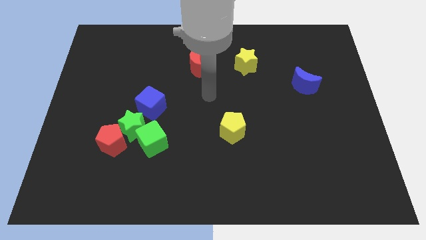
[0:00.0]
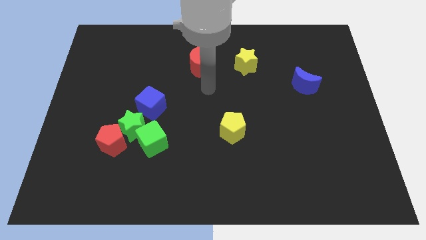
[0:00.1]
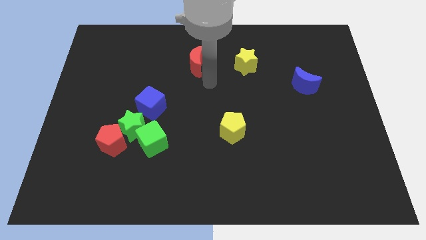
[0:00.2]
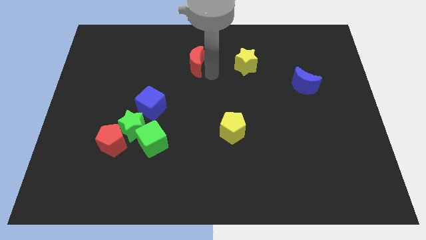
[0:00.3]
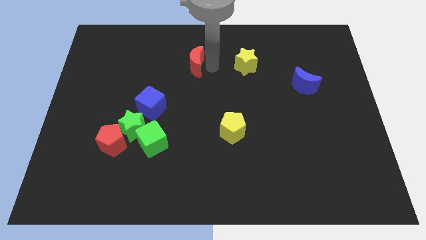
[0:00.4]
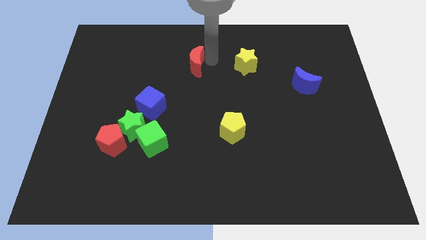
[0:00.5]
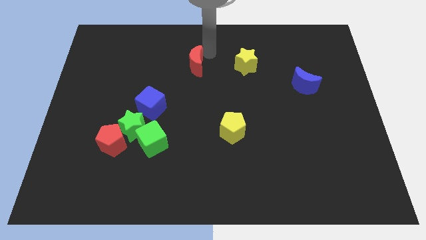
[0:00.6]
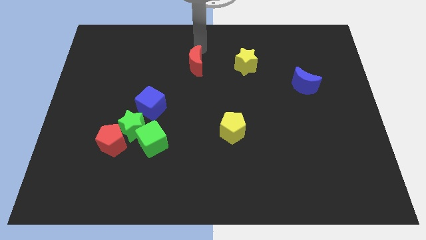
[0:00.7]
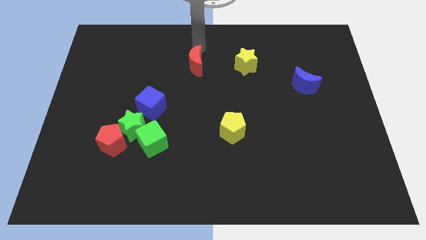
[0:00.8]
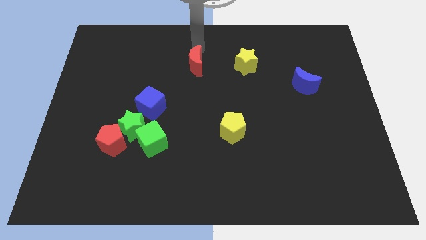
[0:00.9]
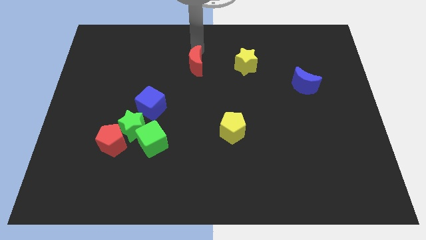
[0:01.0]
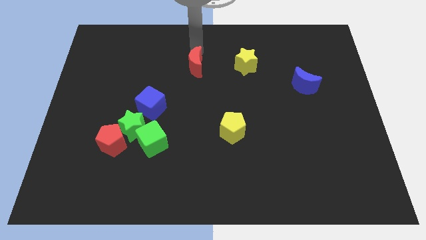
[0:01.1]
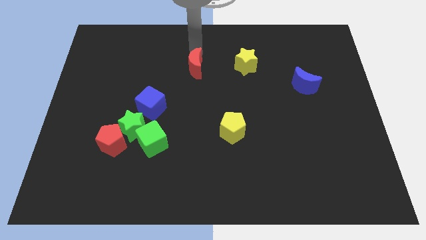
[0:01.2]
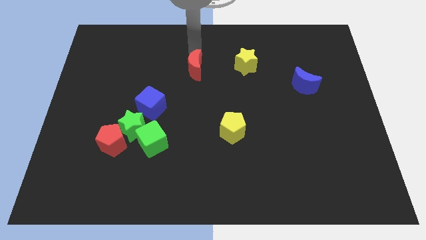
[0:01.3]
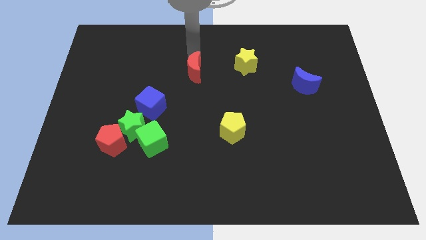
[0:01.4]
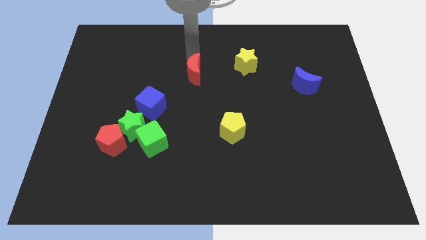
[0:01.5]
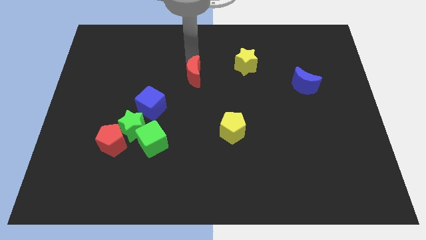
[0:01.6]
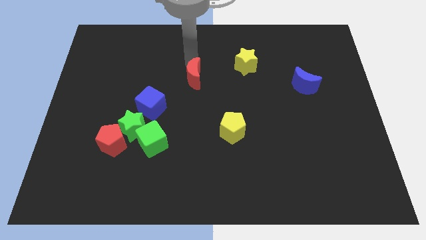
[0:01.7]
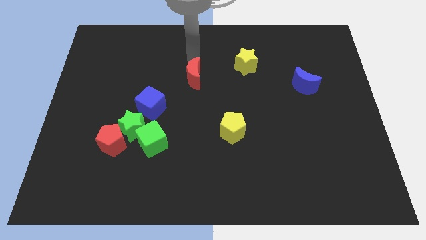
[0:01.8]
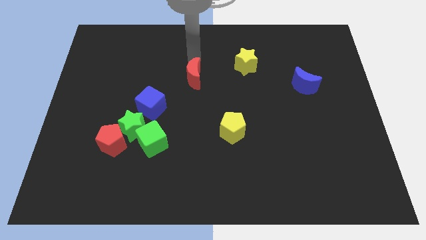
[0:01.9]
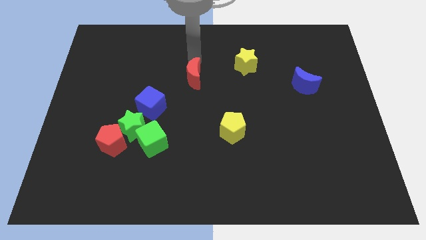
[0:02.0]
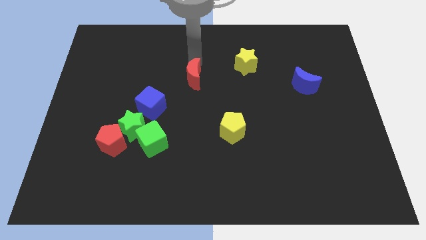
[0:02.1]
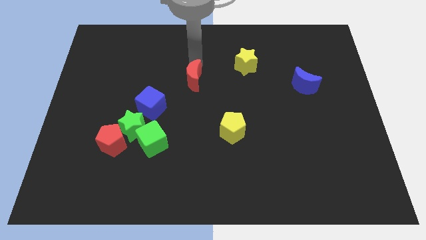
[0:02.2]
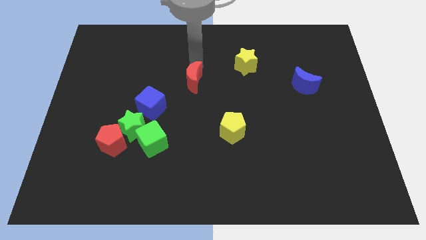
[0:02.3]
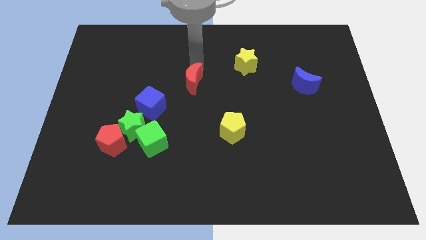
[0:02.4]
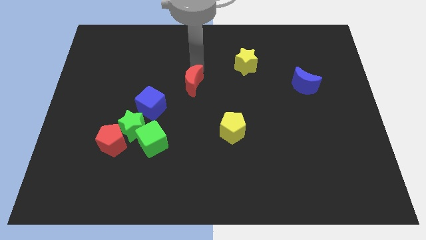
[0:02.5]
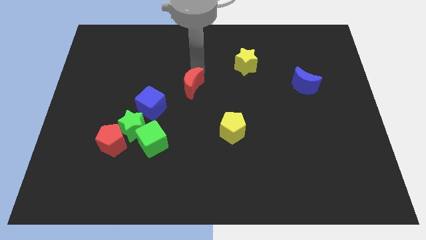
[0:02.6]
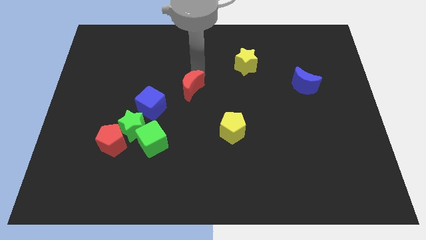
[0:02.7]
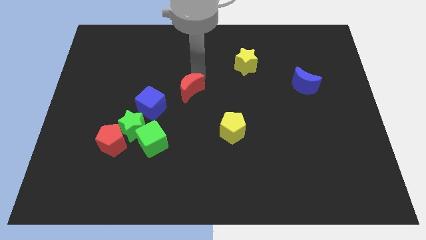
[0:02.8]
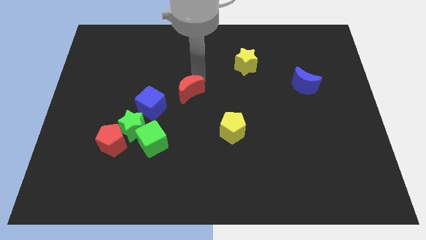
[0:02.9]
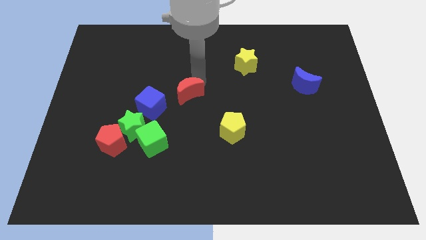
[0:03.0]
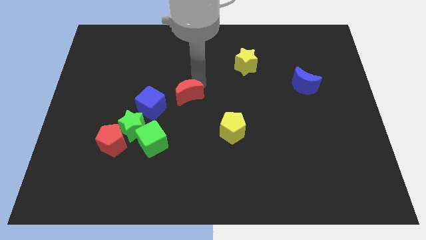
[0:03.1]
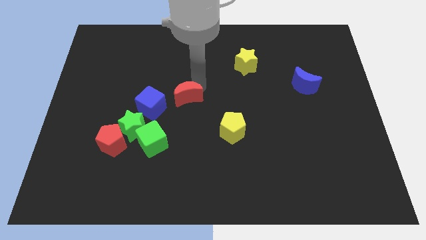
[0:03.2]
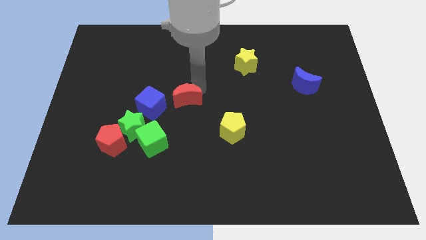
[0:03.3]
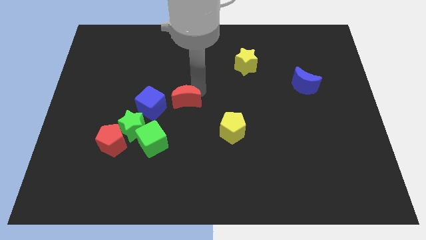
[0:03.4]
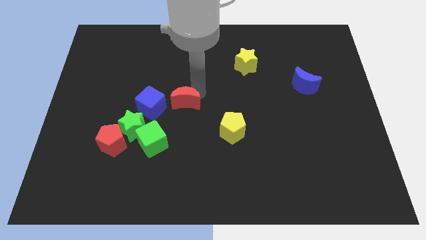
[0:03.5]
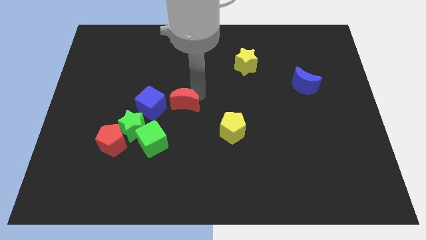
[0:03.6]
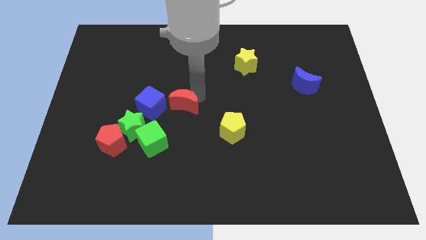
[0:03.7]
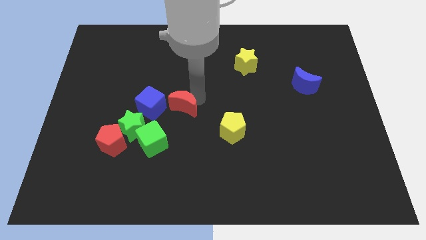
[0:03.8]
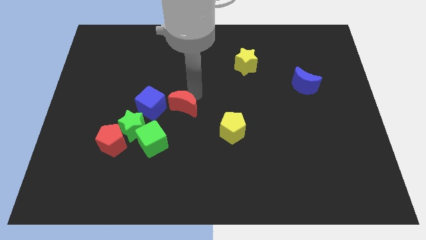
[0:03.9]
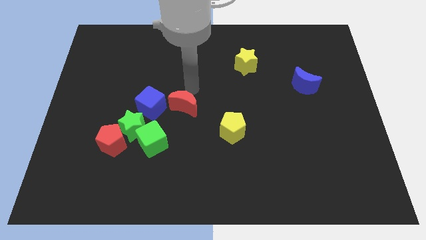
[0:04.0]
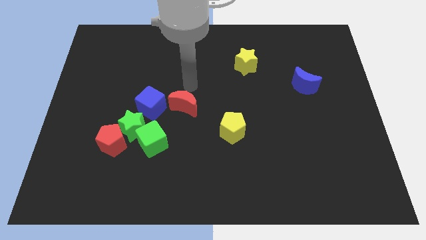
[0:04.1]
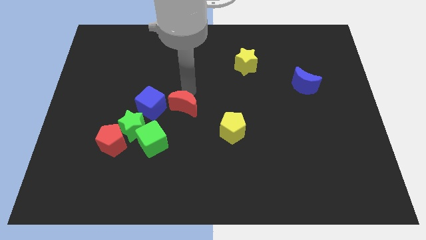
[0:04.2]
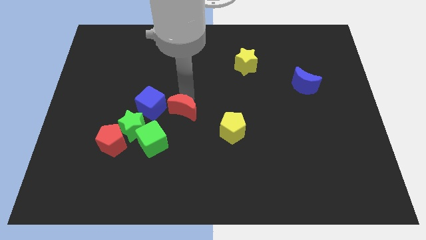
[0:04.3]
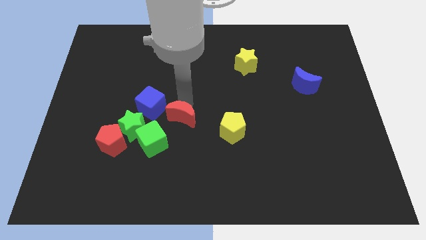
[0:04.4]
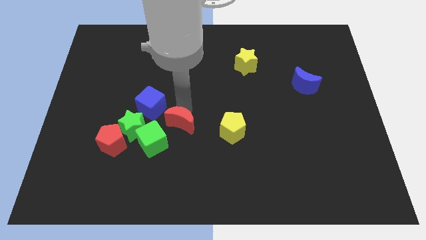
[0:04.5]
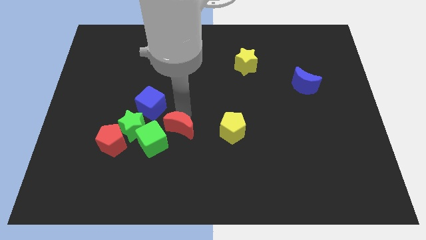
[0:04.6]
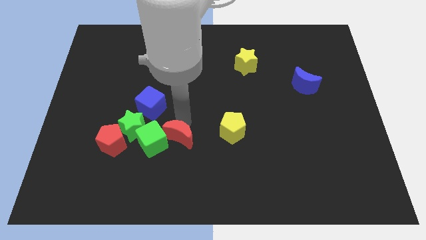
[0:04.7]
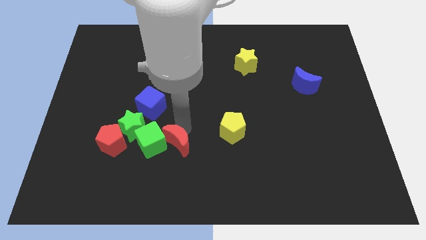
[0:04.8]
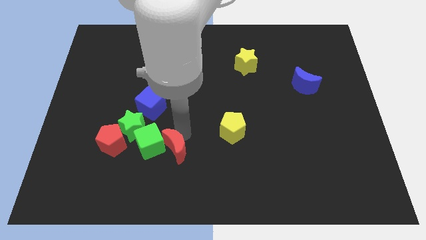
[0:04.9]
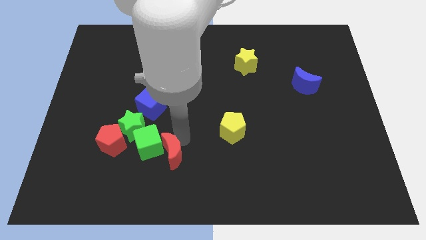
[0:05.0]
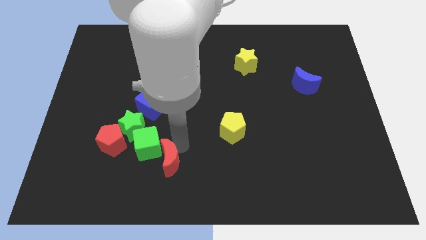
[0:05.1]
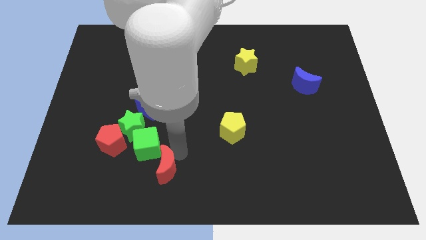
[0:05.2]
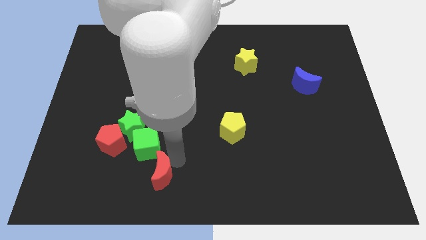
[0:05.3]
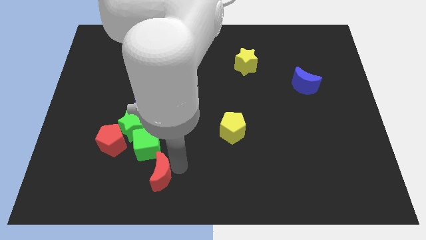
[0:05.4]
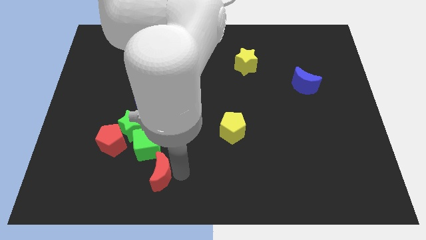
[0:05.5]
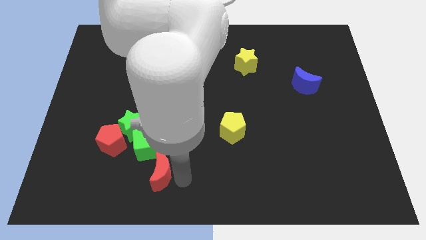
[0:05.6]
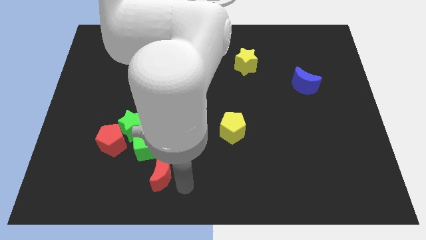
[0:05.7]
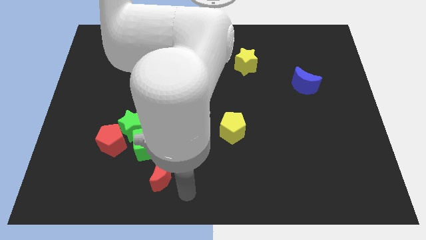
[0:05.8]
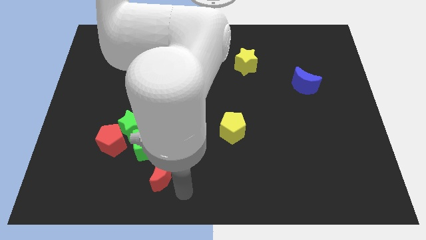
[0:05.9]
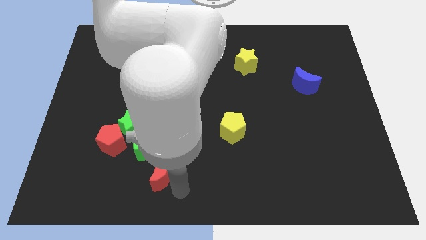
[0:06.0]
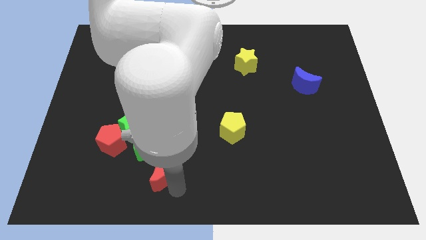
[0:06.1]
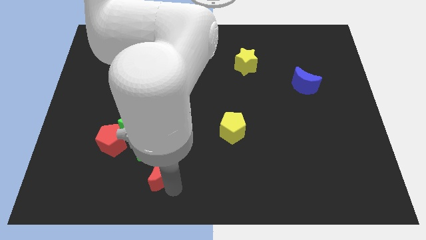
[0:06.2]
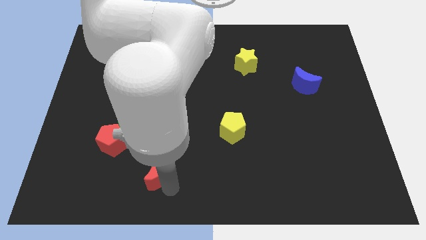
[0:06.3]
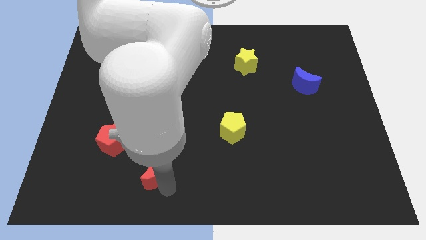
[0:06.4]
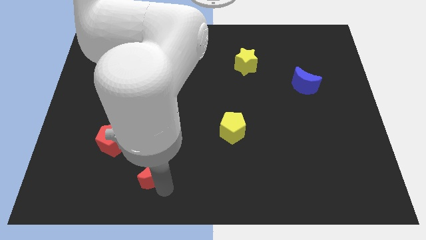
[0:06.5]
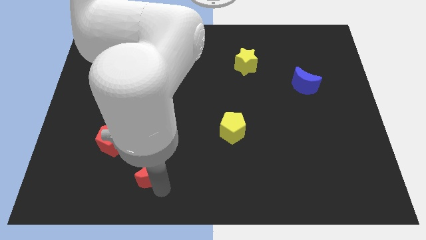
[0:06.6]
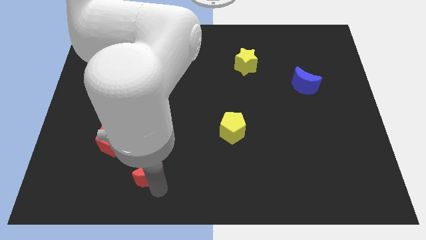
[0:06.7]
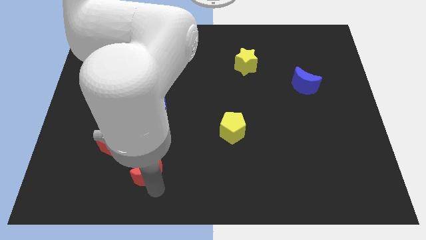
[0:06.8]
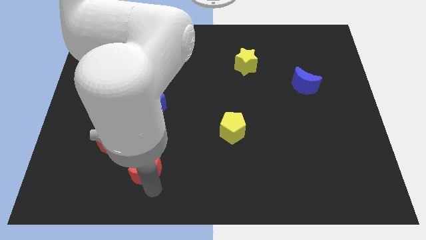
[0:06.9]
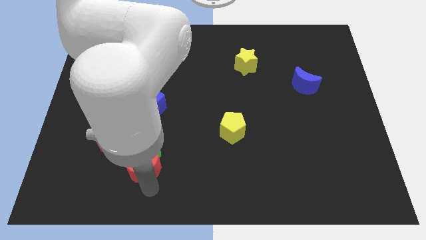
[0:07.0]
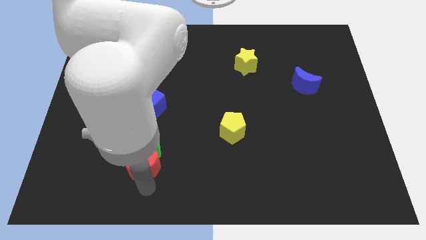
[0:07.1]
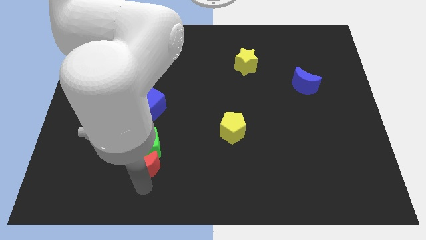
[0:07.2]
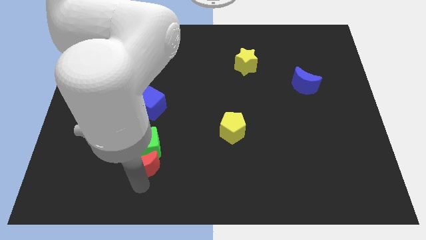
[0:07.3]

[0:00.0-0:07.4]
push the red moon to the bottom side of the blue cube
